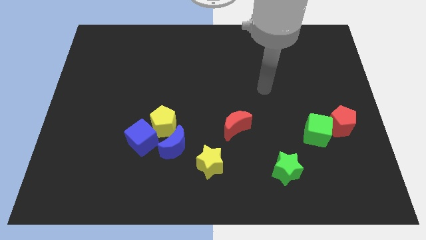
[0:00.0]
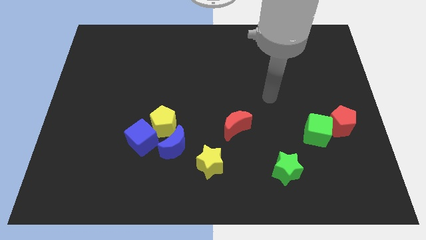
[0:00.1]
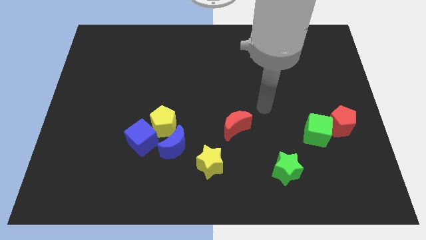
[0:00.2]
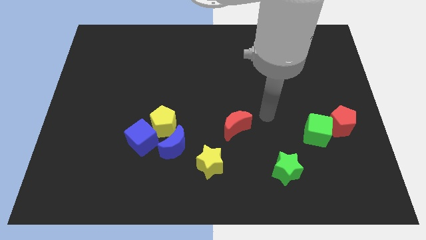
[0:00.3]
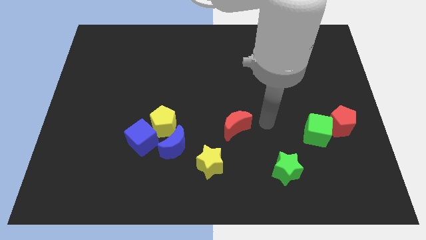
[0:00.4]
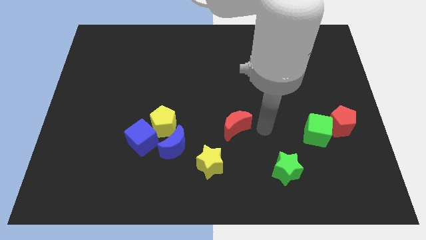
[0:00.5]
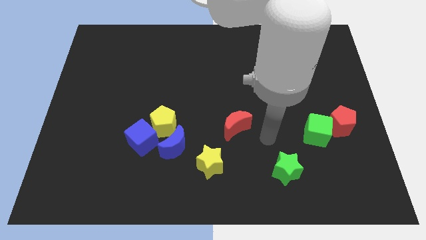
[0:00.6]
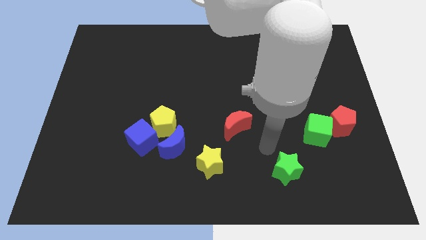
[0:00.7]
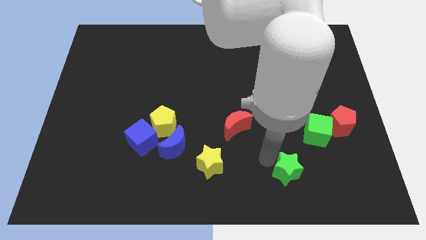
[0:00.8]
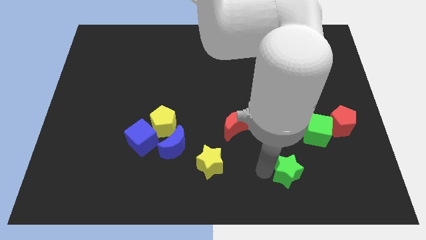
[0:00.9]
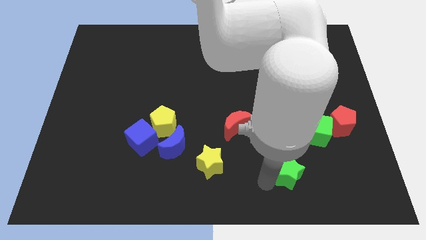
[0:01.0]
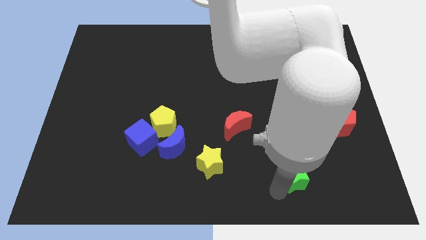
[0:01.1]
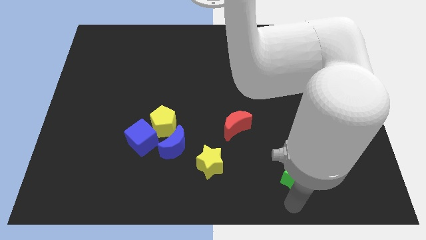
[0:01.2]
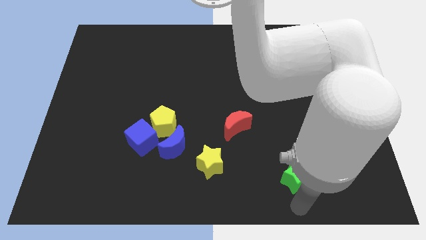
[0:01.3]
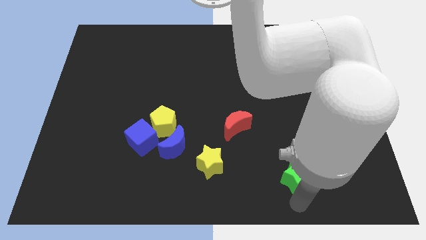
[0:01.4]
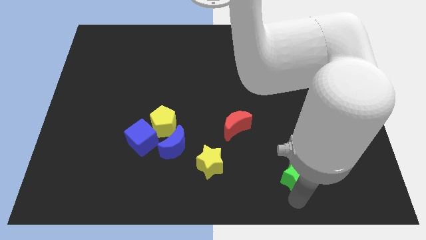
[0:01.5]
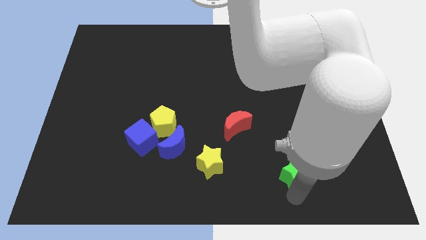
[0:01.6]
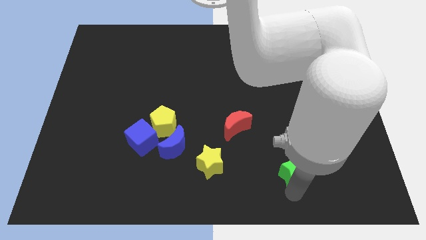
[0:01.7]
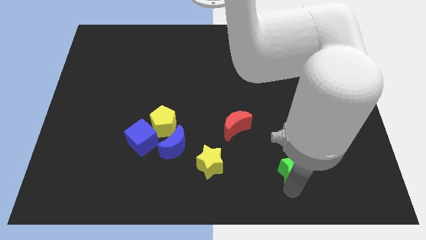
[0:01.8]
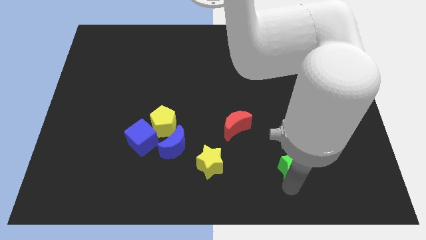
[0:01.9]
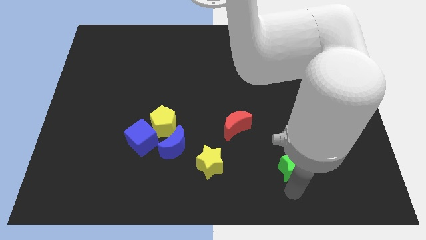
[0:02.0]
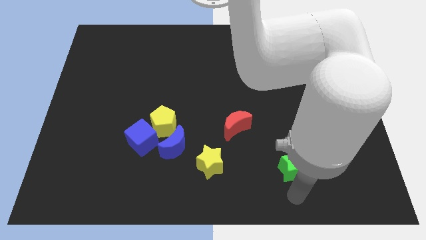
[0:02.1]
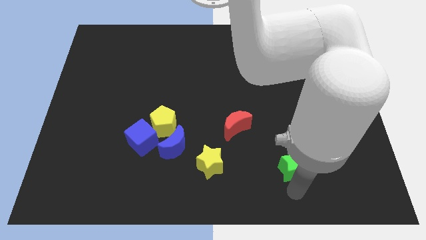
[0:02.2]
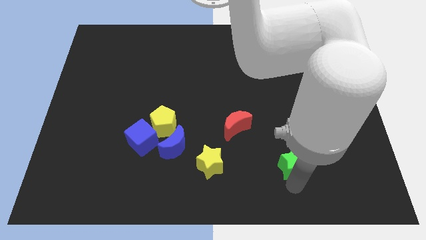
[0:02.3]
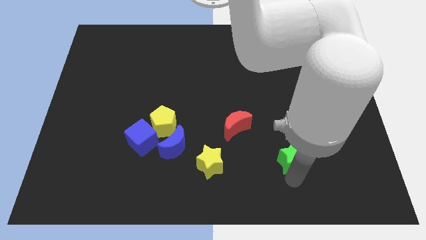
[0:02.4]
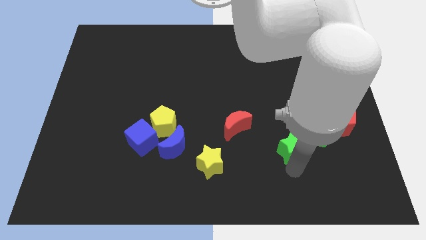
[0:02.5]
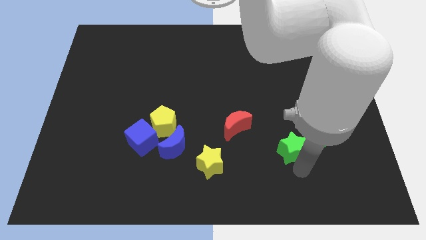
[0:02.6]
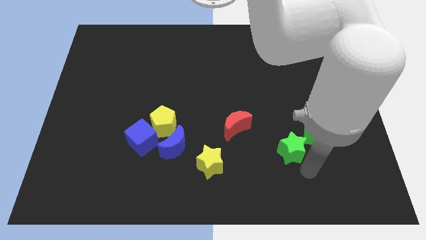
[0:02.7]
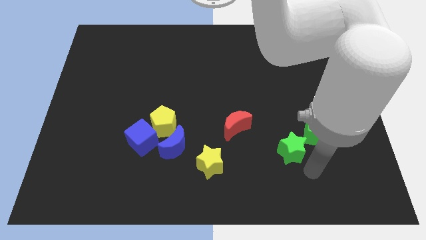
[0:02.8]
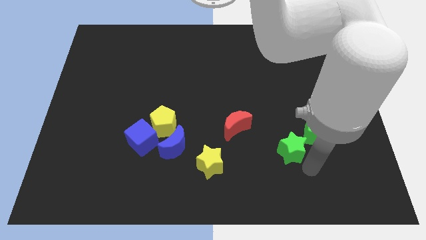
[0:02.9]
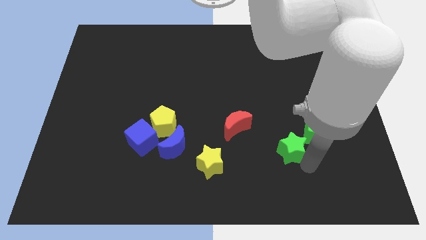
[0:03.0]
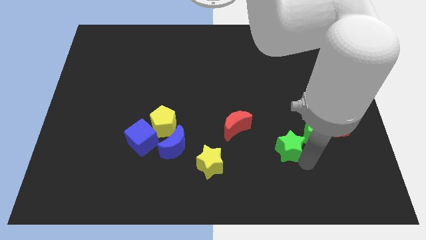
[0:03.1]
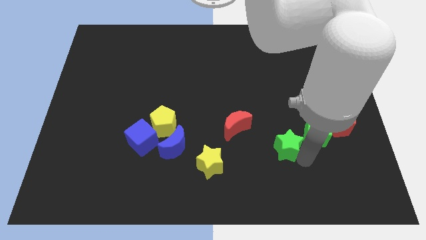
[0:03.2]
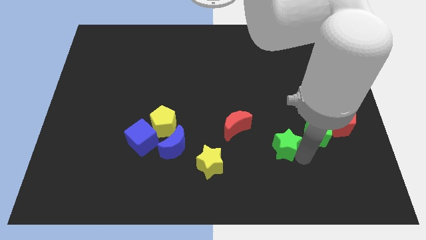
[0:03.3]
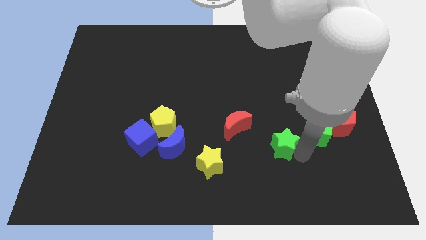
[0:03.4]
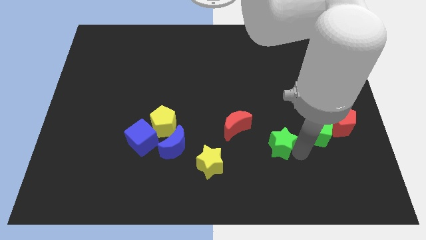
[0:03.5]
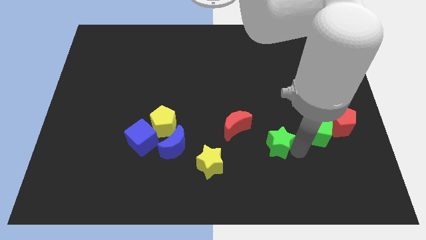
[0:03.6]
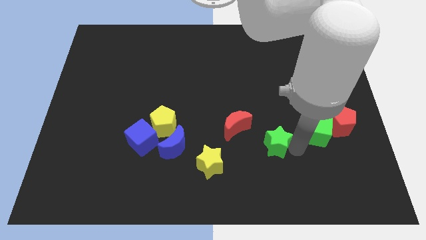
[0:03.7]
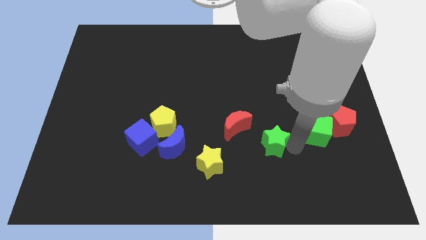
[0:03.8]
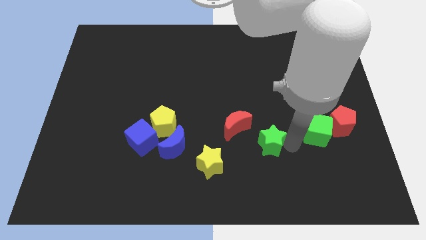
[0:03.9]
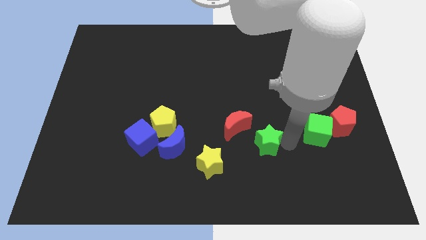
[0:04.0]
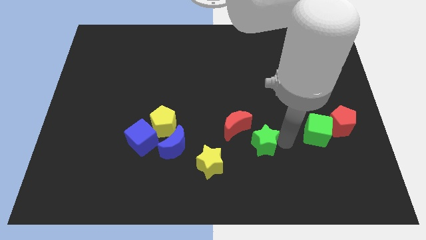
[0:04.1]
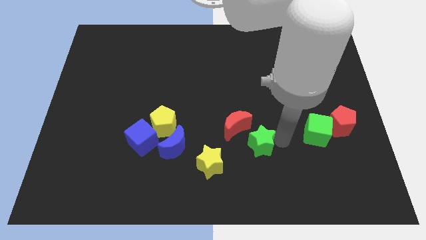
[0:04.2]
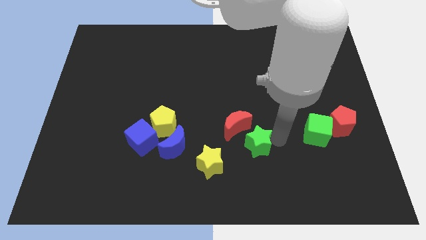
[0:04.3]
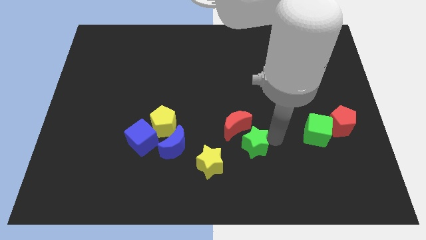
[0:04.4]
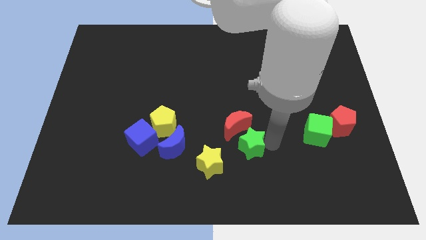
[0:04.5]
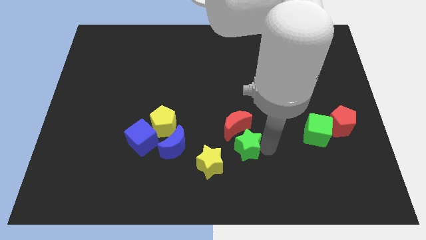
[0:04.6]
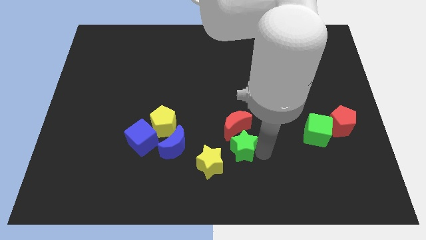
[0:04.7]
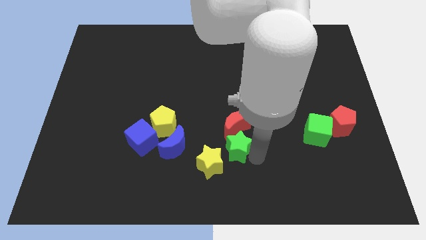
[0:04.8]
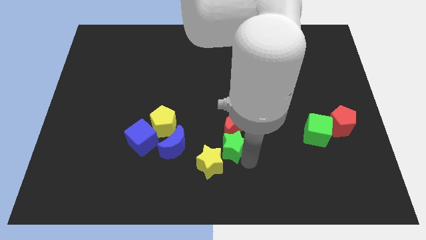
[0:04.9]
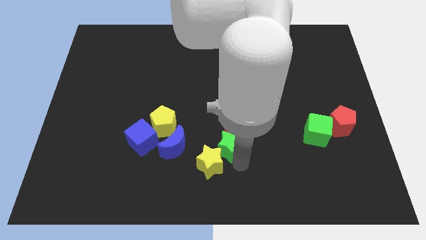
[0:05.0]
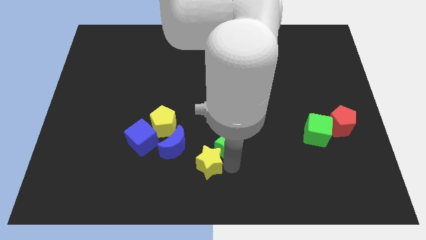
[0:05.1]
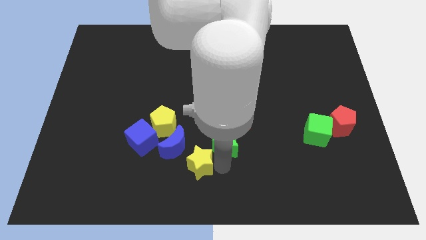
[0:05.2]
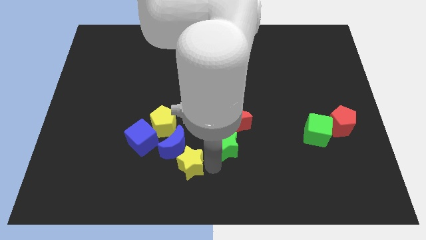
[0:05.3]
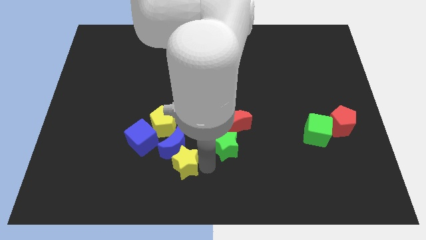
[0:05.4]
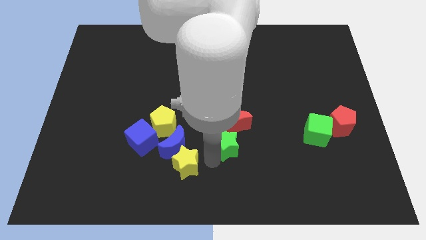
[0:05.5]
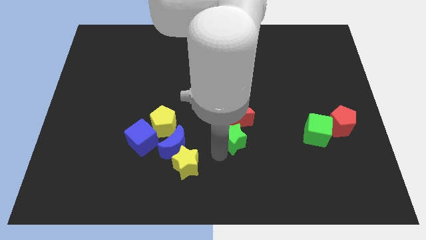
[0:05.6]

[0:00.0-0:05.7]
put the green star to the middle
